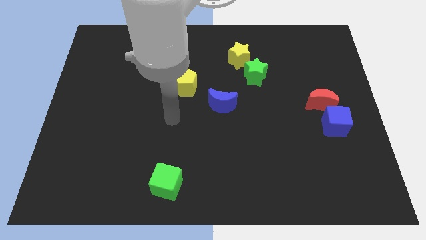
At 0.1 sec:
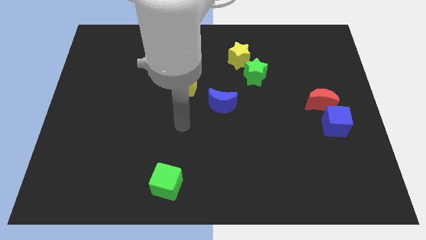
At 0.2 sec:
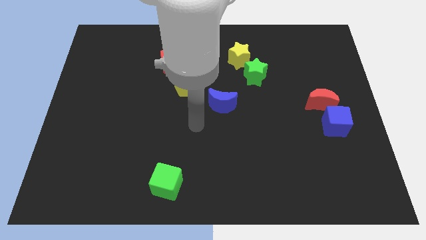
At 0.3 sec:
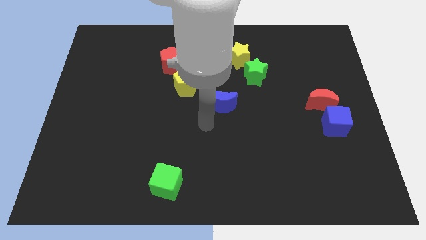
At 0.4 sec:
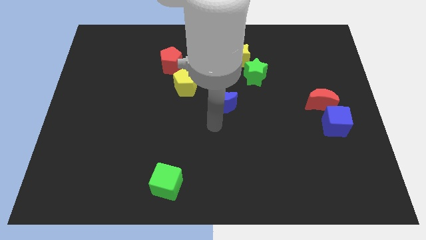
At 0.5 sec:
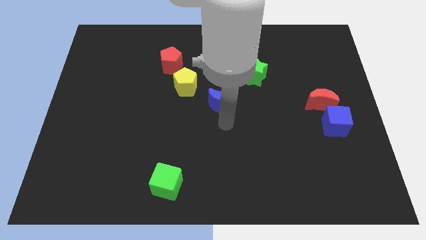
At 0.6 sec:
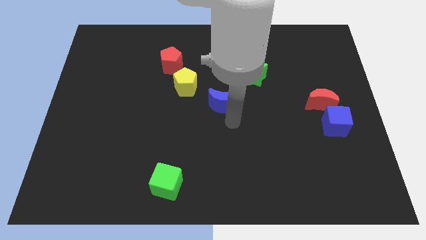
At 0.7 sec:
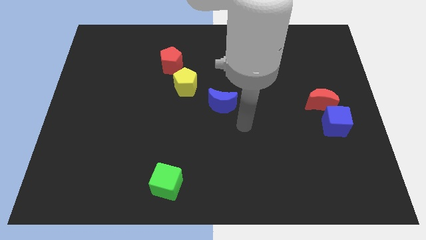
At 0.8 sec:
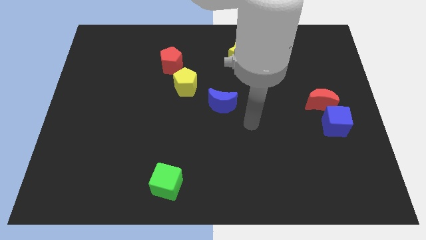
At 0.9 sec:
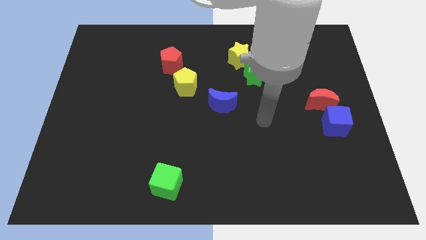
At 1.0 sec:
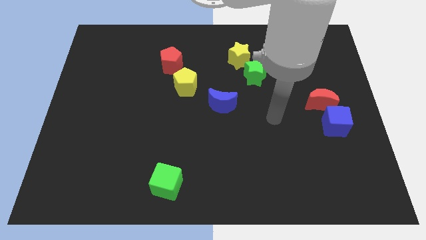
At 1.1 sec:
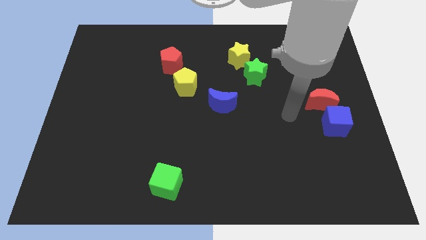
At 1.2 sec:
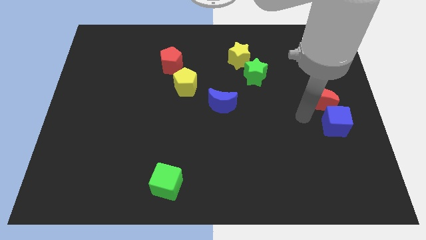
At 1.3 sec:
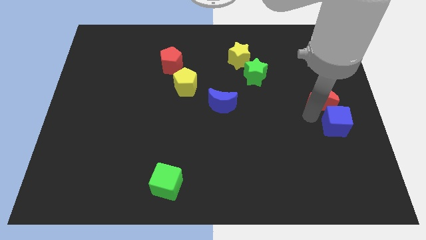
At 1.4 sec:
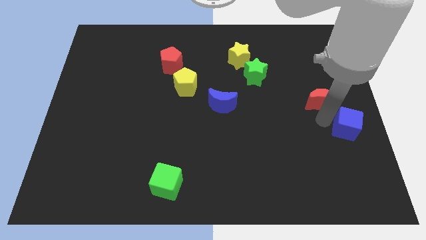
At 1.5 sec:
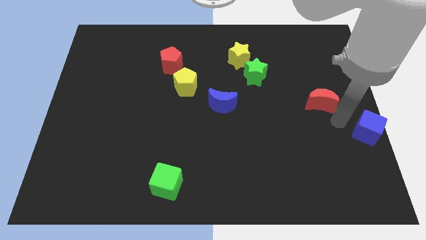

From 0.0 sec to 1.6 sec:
pull the red moon apart from the blue cube

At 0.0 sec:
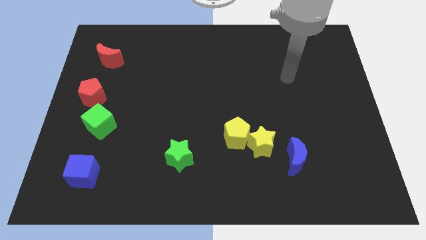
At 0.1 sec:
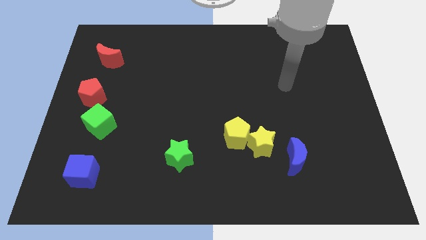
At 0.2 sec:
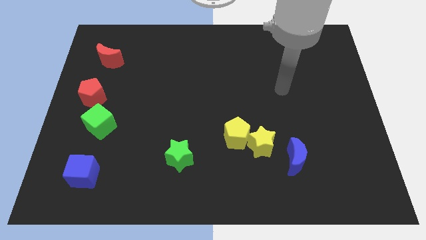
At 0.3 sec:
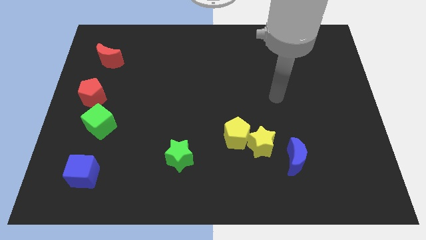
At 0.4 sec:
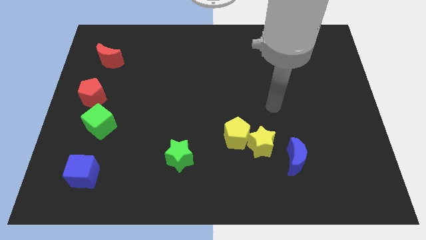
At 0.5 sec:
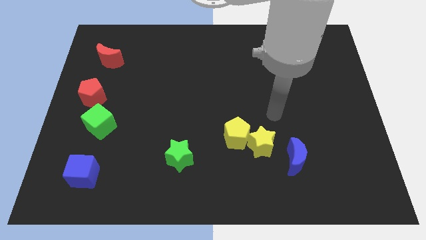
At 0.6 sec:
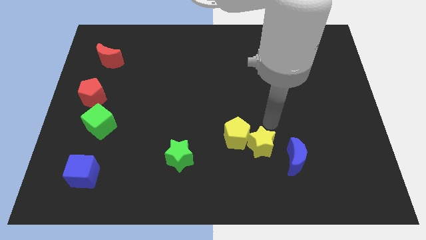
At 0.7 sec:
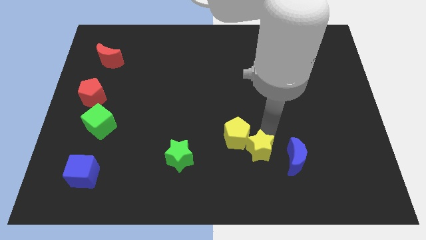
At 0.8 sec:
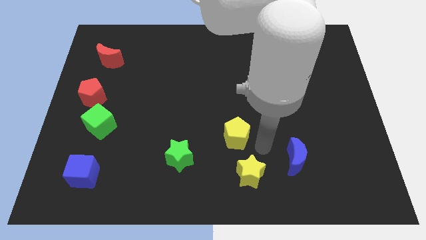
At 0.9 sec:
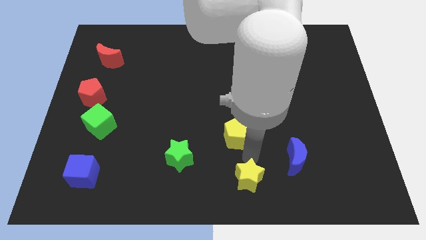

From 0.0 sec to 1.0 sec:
pull the yellow pentagon apart from the yellow star

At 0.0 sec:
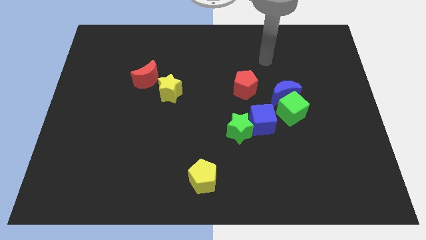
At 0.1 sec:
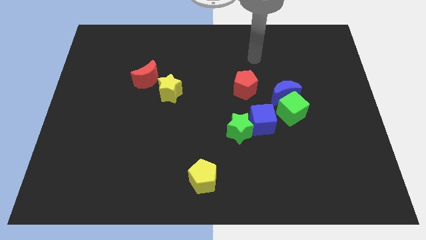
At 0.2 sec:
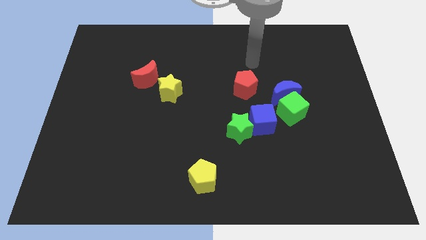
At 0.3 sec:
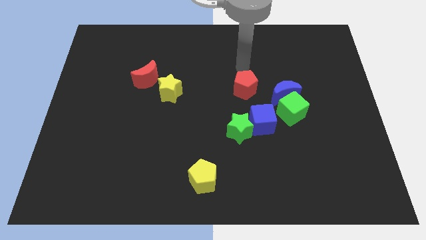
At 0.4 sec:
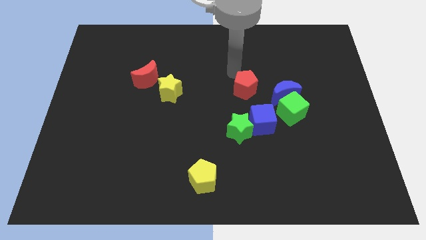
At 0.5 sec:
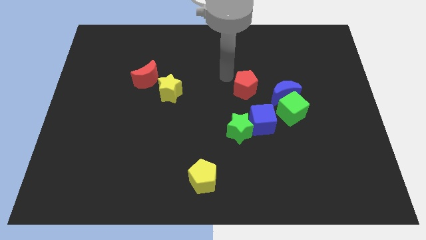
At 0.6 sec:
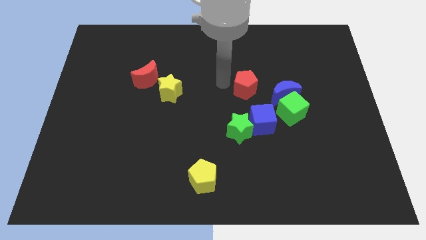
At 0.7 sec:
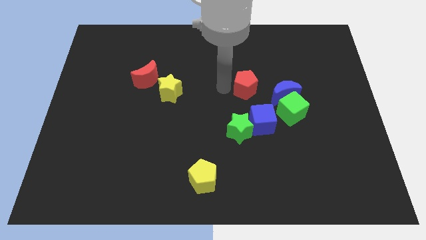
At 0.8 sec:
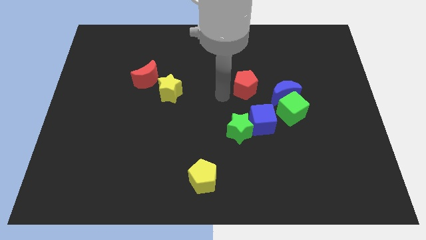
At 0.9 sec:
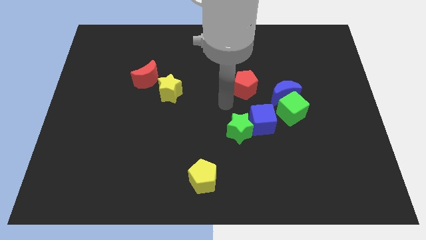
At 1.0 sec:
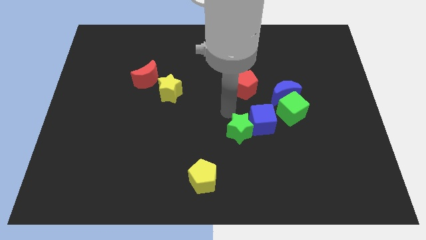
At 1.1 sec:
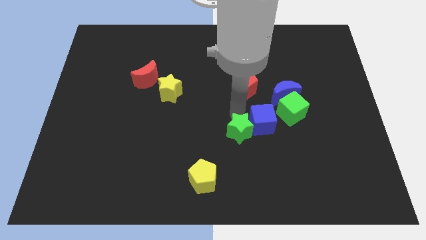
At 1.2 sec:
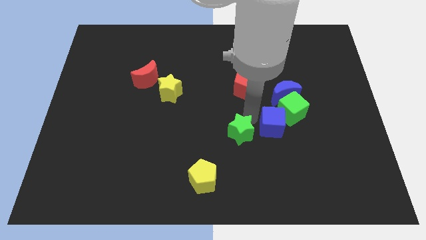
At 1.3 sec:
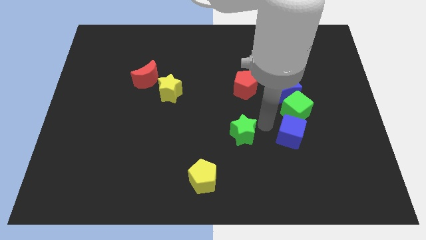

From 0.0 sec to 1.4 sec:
pull the green star apart from the blue cube

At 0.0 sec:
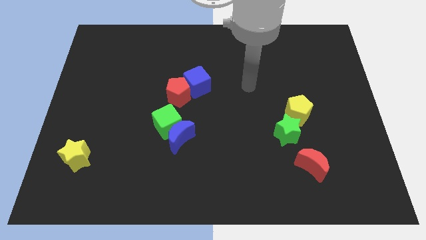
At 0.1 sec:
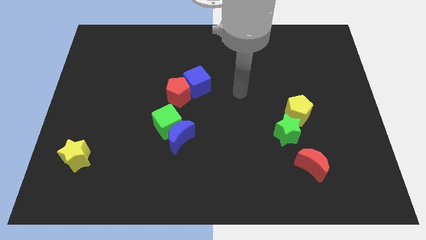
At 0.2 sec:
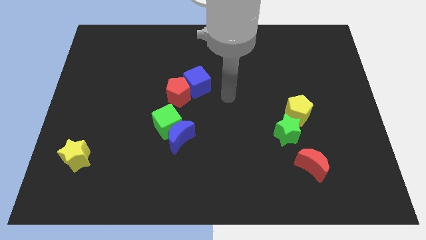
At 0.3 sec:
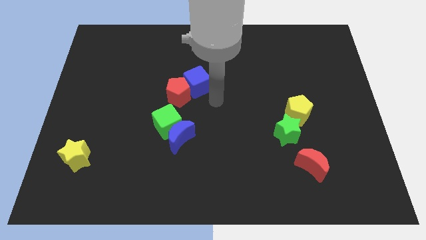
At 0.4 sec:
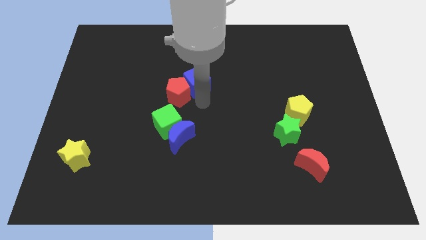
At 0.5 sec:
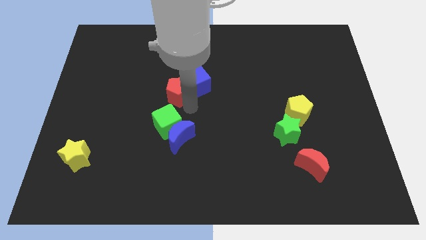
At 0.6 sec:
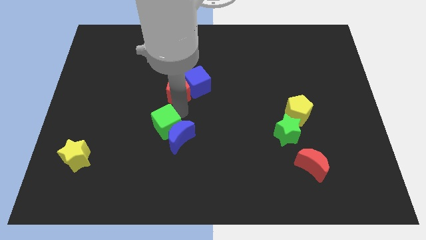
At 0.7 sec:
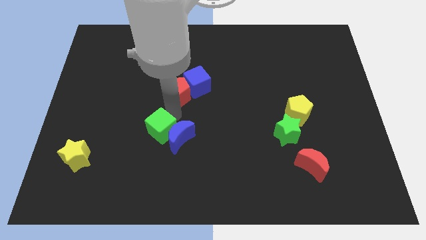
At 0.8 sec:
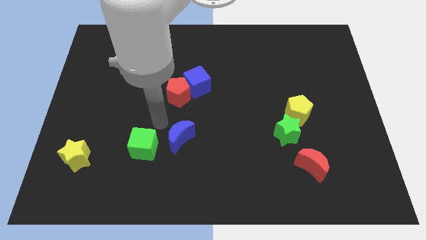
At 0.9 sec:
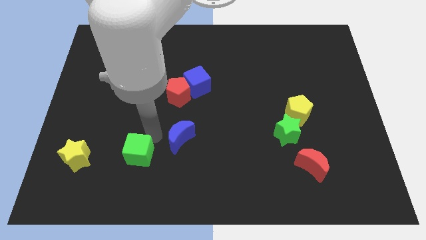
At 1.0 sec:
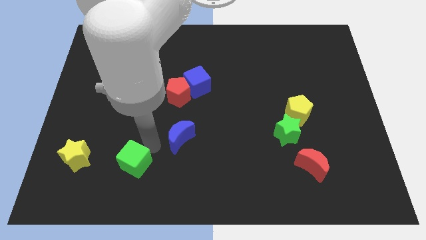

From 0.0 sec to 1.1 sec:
move the blue moon away from the green cube

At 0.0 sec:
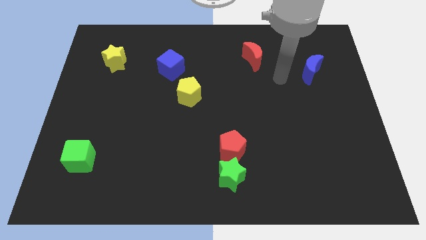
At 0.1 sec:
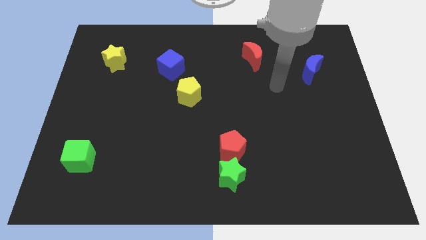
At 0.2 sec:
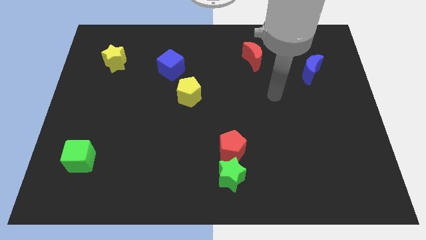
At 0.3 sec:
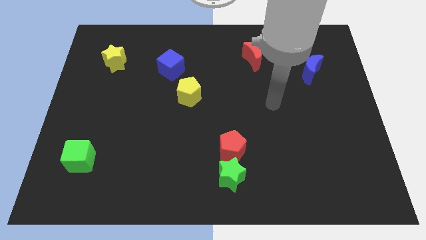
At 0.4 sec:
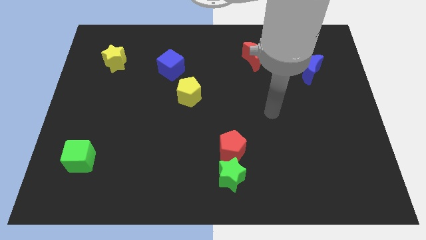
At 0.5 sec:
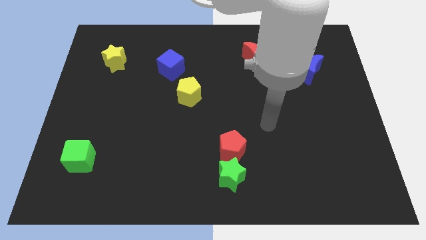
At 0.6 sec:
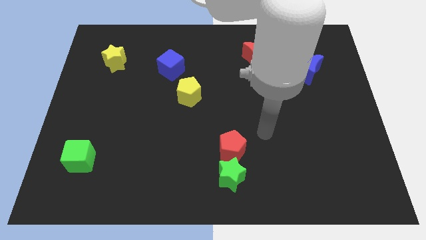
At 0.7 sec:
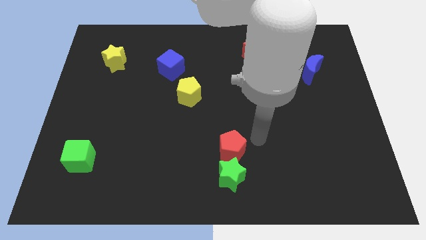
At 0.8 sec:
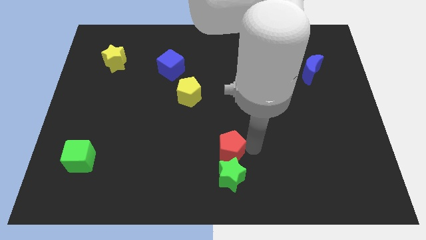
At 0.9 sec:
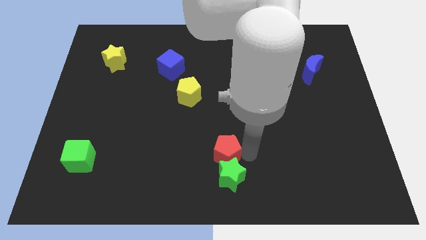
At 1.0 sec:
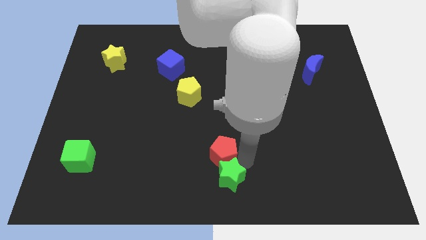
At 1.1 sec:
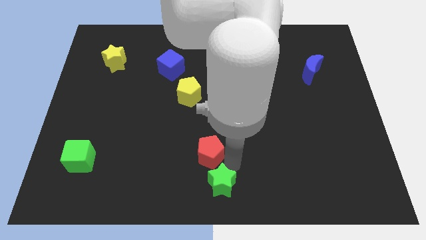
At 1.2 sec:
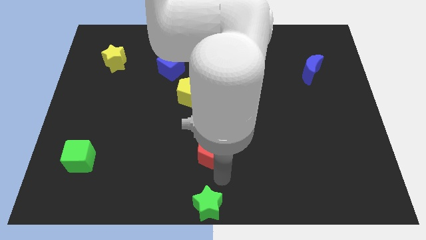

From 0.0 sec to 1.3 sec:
move the red pentagon away from the green star

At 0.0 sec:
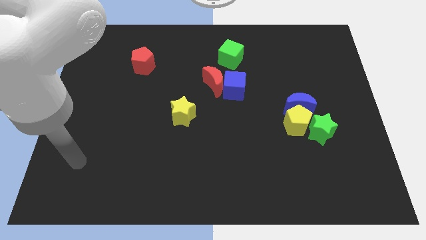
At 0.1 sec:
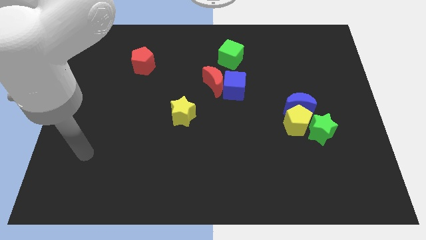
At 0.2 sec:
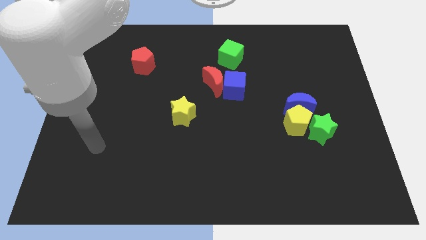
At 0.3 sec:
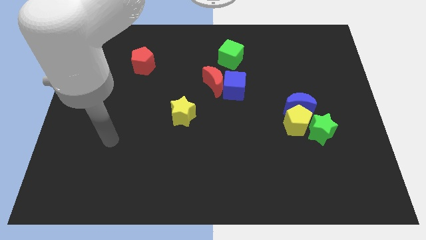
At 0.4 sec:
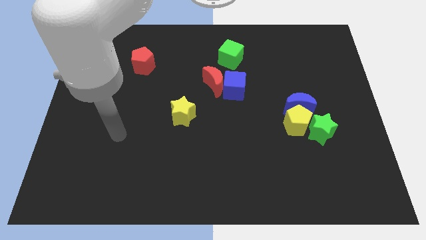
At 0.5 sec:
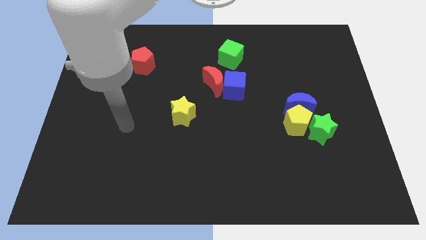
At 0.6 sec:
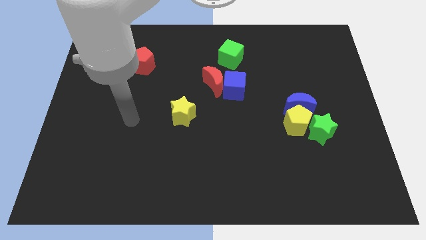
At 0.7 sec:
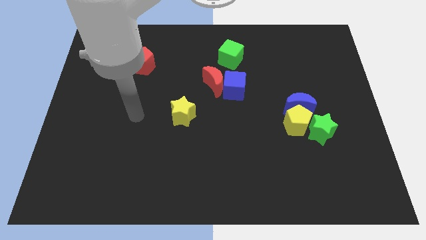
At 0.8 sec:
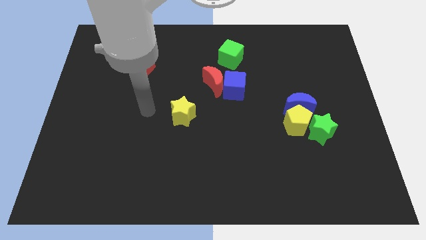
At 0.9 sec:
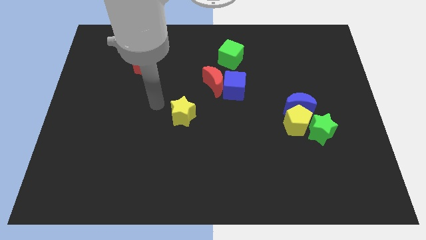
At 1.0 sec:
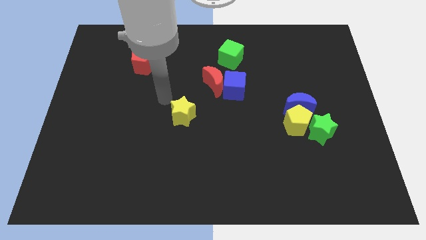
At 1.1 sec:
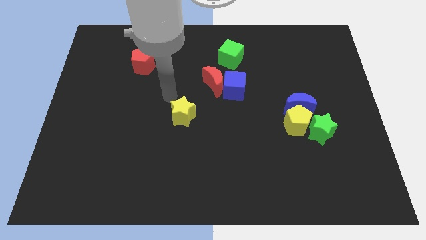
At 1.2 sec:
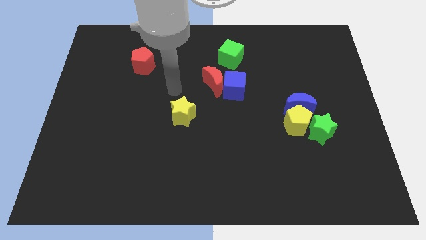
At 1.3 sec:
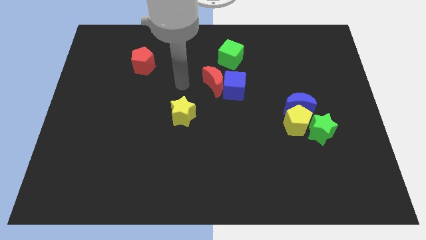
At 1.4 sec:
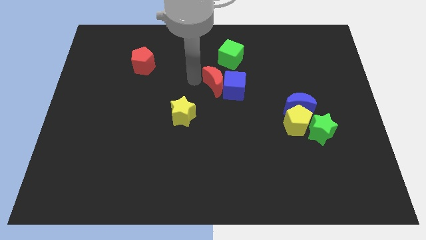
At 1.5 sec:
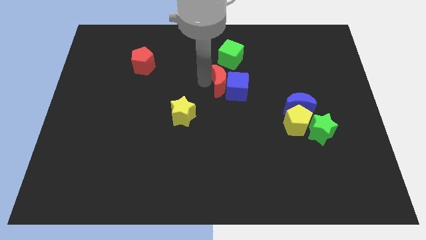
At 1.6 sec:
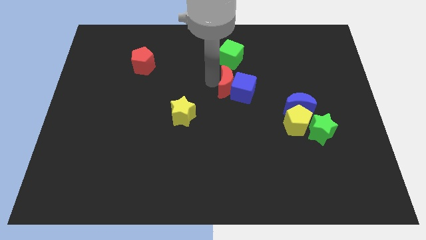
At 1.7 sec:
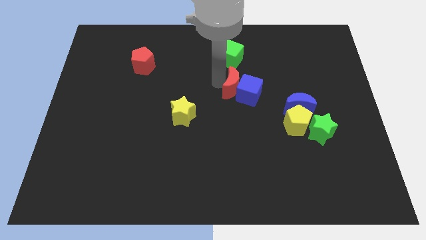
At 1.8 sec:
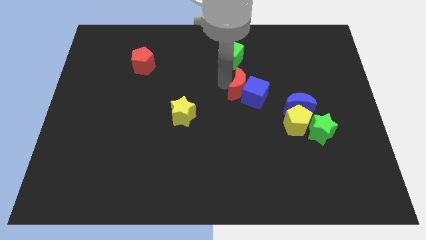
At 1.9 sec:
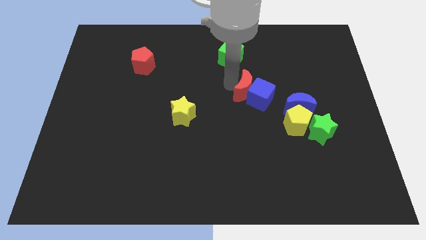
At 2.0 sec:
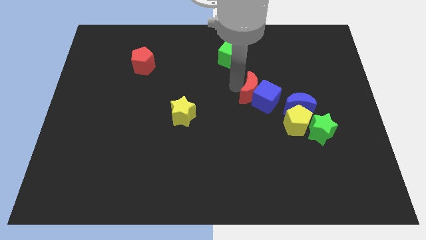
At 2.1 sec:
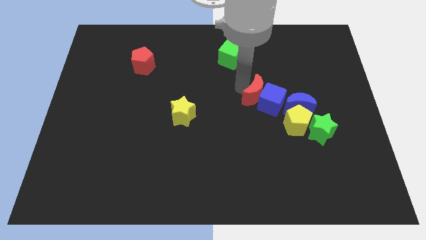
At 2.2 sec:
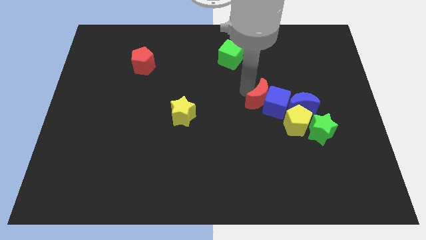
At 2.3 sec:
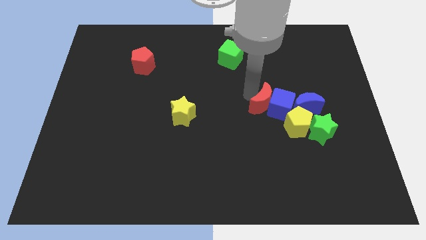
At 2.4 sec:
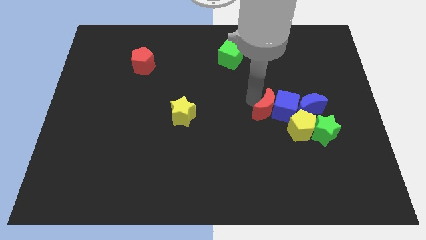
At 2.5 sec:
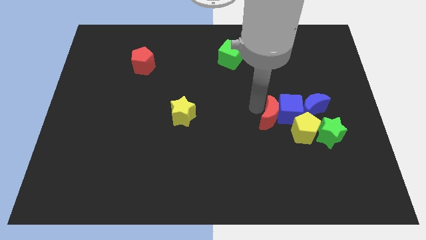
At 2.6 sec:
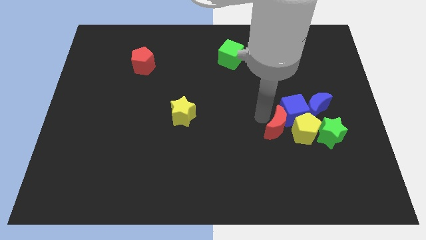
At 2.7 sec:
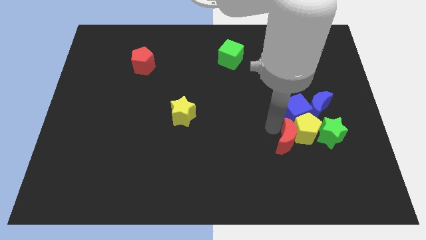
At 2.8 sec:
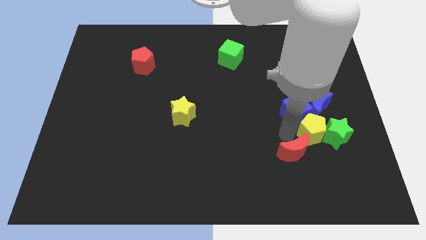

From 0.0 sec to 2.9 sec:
separate the blue cube from the red moon

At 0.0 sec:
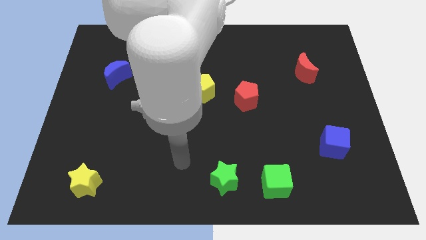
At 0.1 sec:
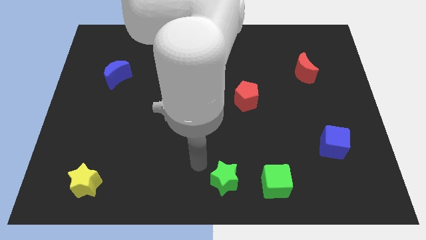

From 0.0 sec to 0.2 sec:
move the green cube away from the green star
